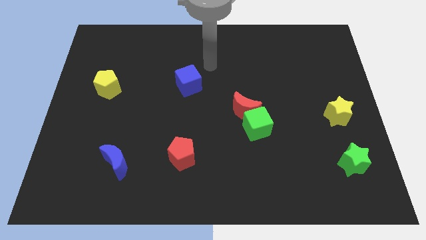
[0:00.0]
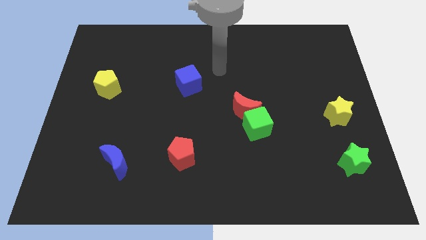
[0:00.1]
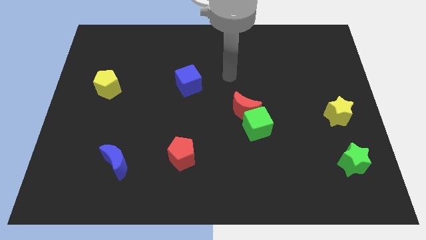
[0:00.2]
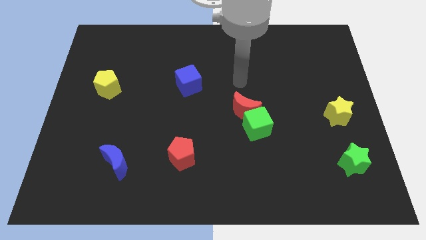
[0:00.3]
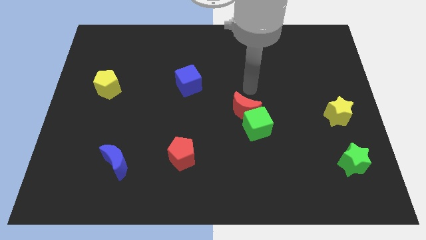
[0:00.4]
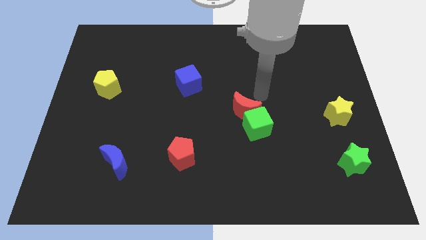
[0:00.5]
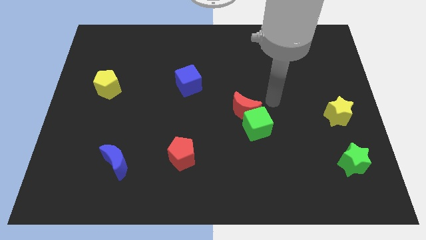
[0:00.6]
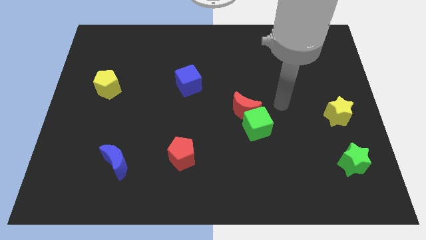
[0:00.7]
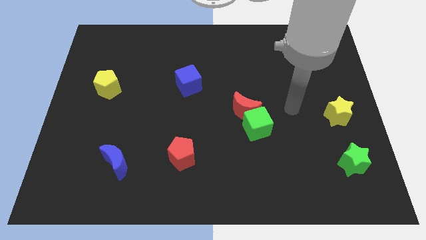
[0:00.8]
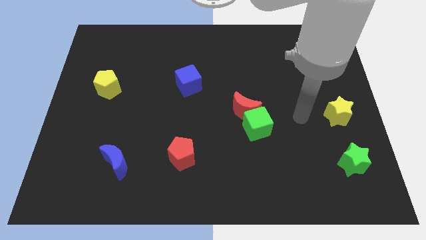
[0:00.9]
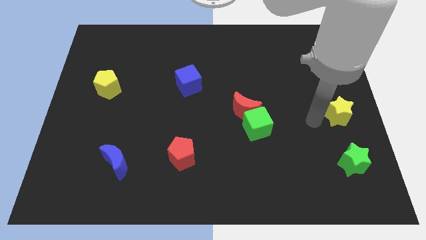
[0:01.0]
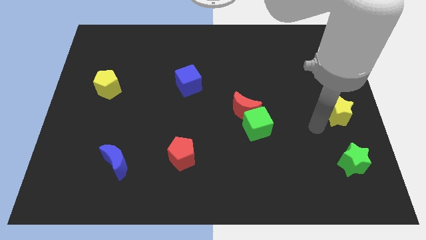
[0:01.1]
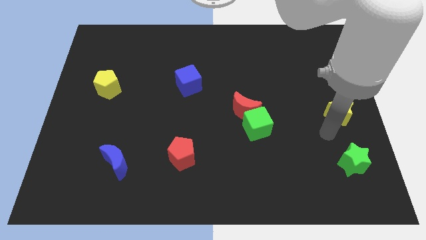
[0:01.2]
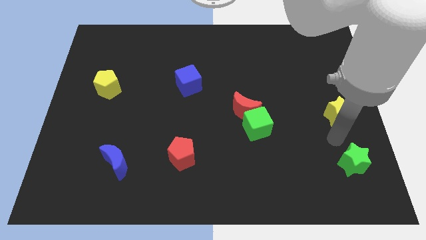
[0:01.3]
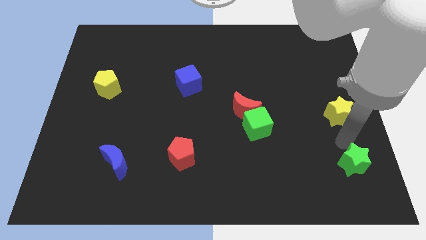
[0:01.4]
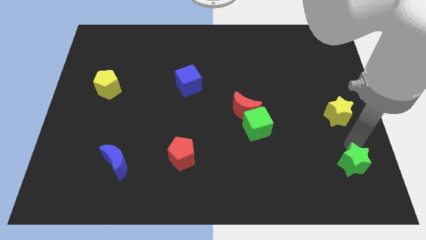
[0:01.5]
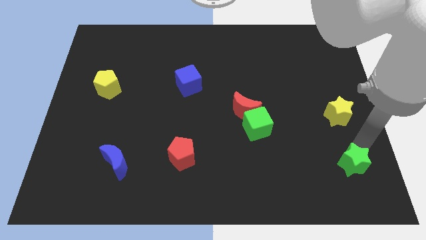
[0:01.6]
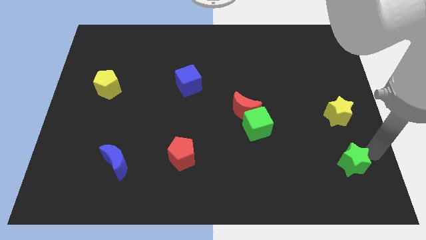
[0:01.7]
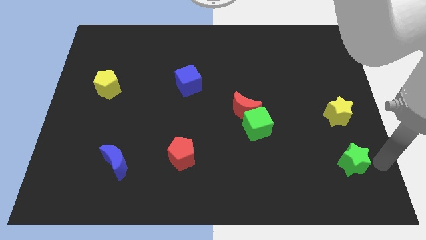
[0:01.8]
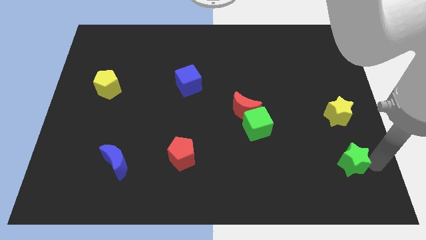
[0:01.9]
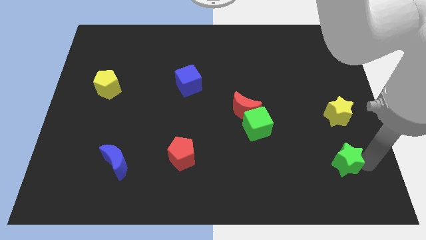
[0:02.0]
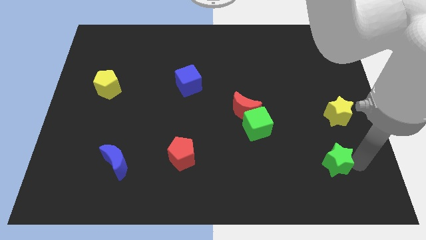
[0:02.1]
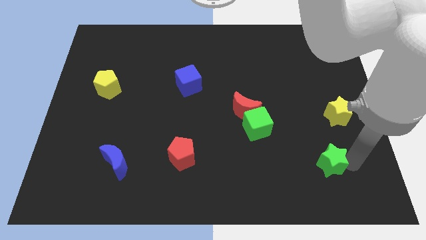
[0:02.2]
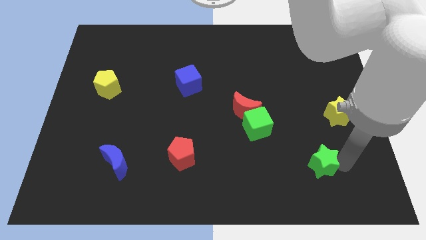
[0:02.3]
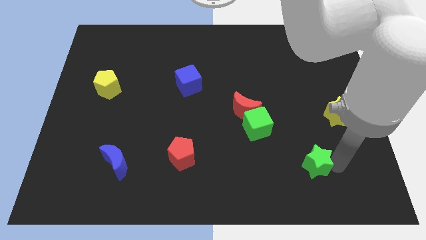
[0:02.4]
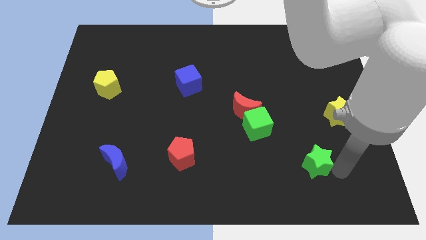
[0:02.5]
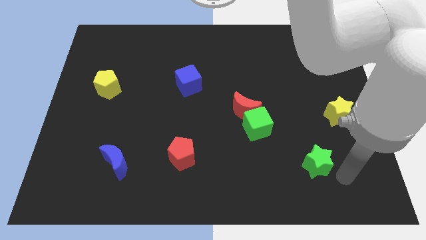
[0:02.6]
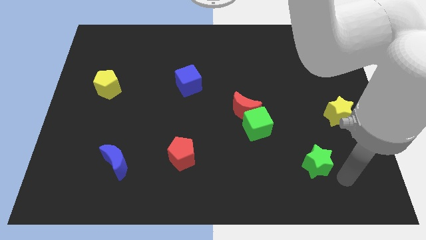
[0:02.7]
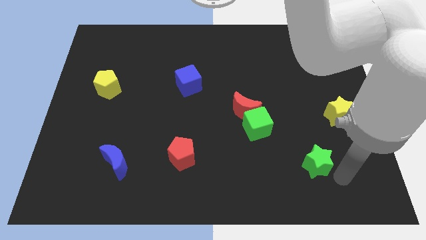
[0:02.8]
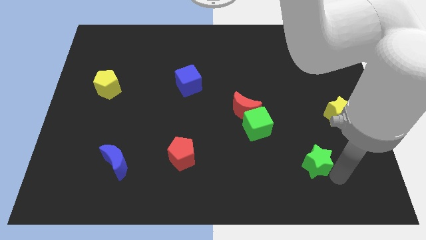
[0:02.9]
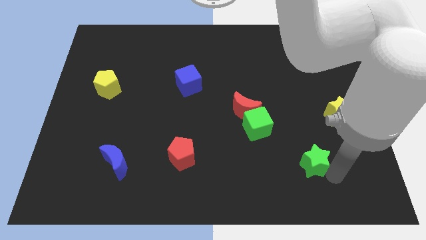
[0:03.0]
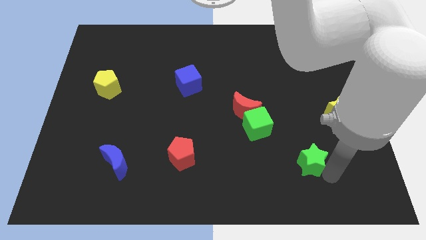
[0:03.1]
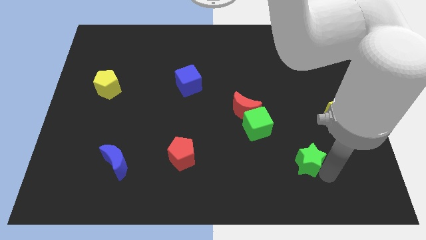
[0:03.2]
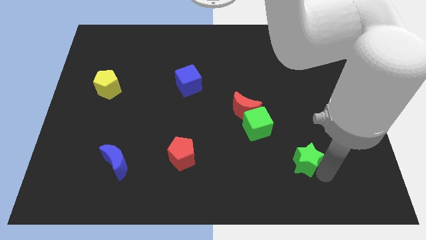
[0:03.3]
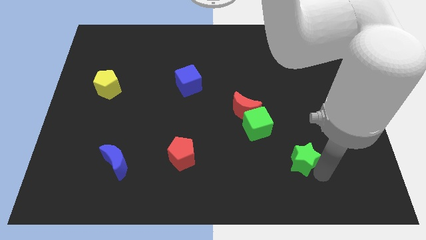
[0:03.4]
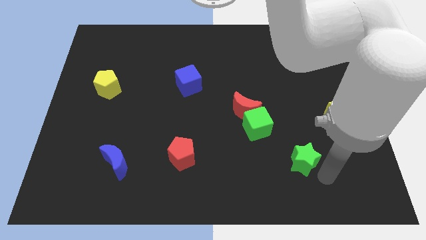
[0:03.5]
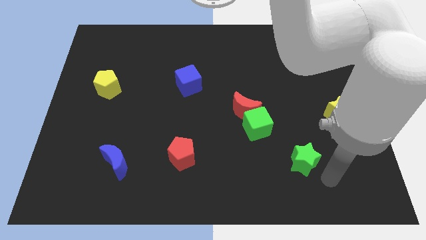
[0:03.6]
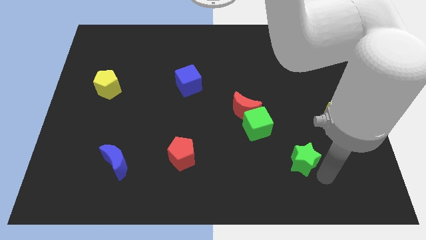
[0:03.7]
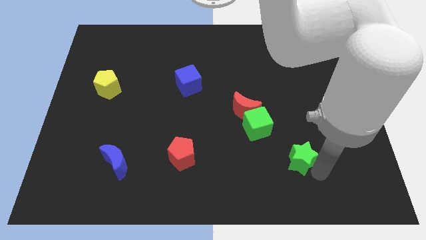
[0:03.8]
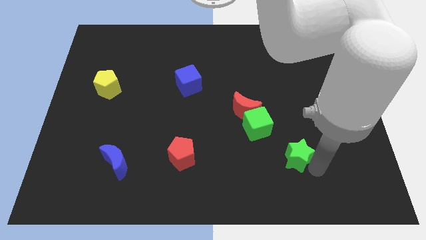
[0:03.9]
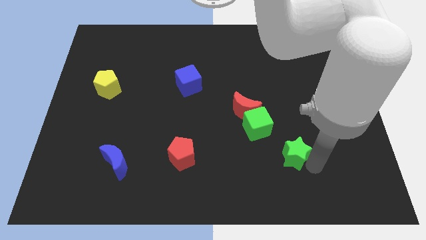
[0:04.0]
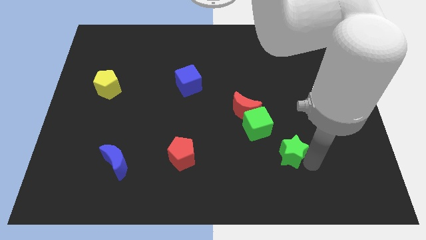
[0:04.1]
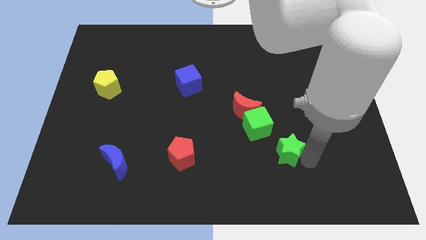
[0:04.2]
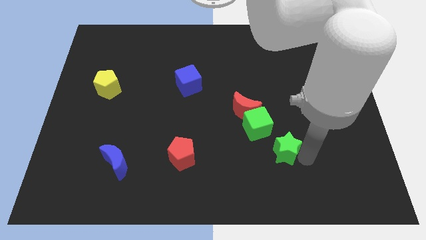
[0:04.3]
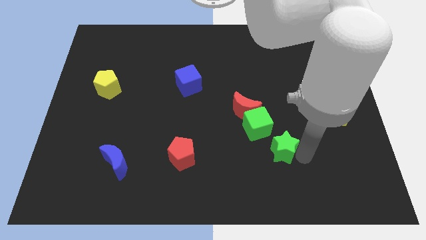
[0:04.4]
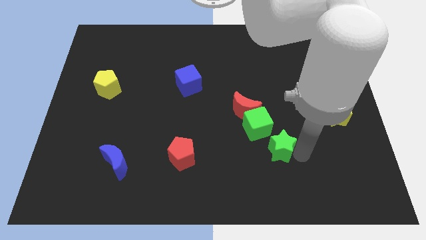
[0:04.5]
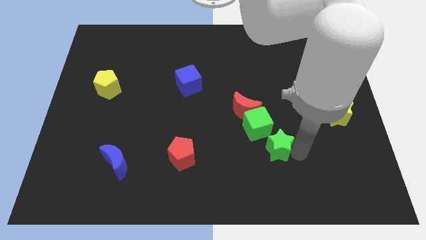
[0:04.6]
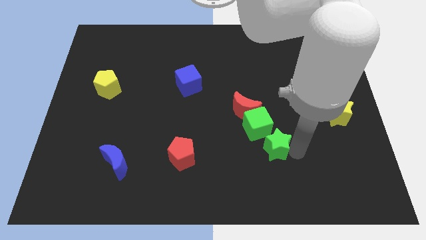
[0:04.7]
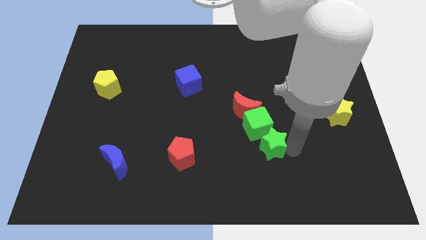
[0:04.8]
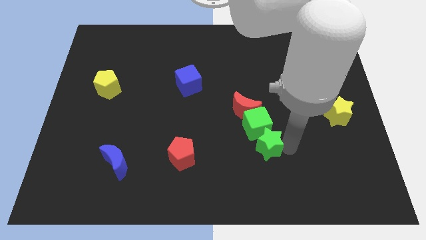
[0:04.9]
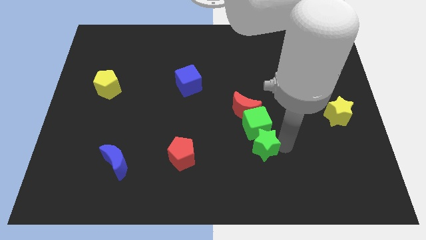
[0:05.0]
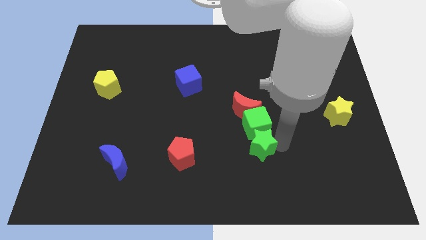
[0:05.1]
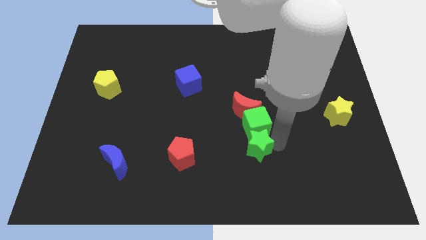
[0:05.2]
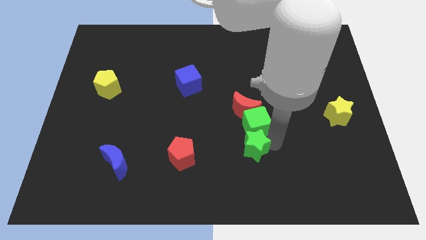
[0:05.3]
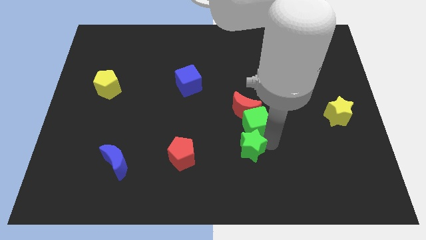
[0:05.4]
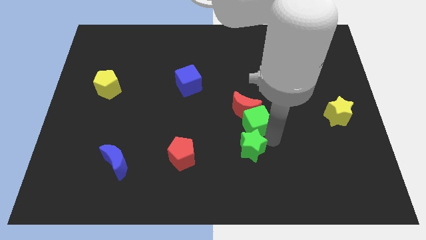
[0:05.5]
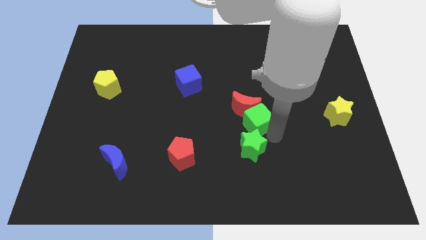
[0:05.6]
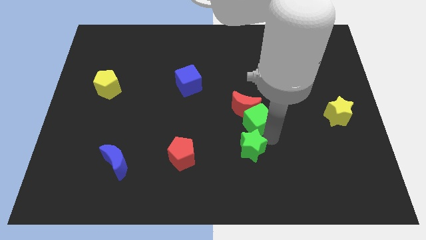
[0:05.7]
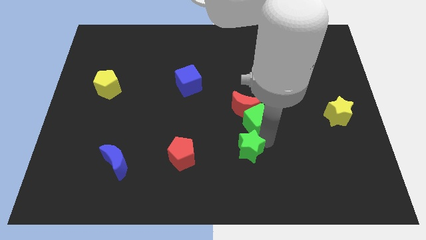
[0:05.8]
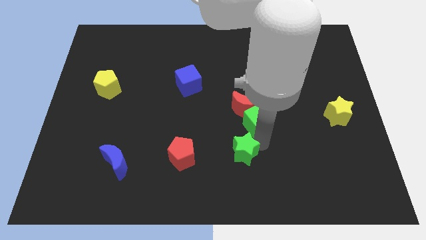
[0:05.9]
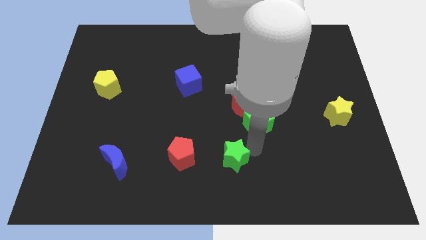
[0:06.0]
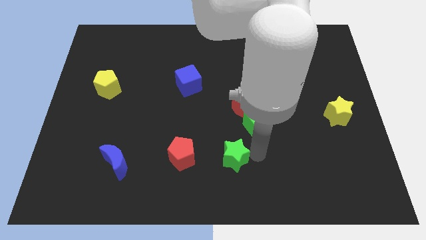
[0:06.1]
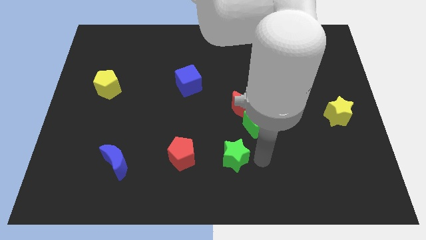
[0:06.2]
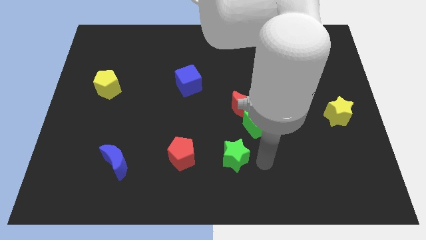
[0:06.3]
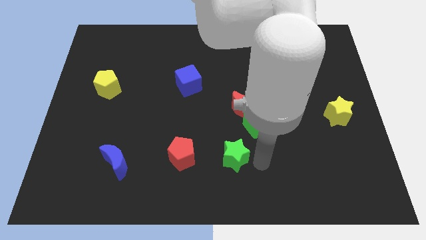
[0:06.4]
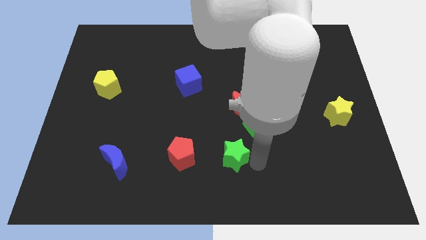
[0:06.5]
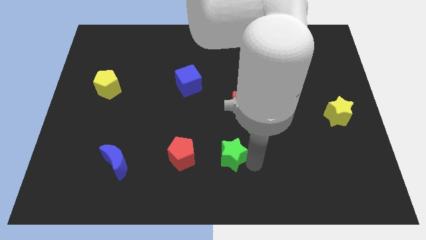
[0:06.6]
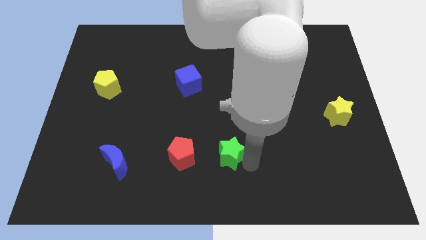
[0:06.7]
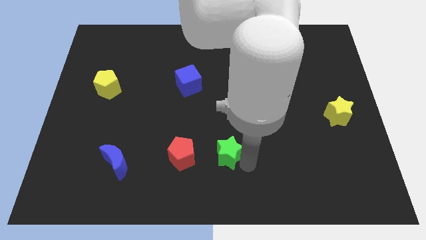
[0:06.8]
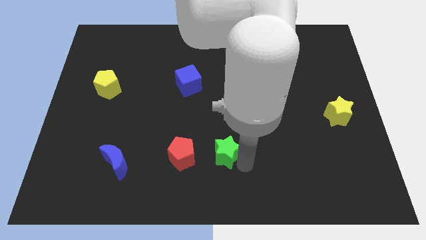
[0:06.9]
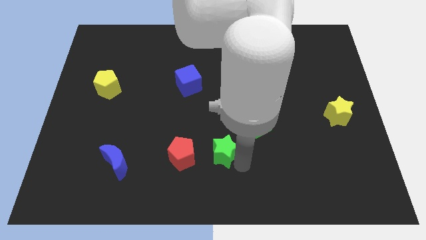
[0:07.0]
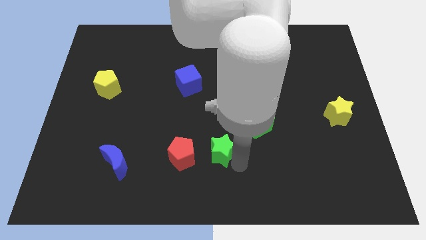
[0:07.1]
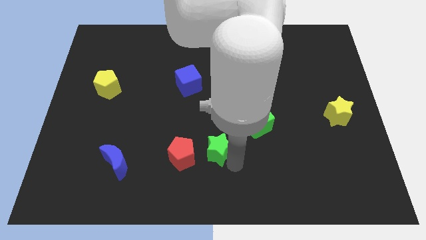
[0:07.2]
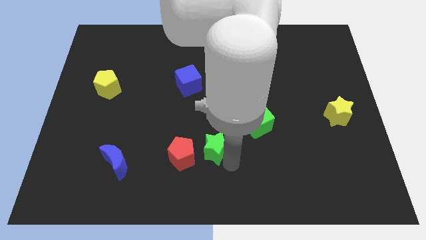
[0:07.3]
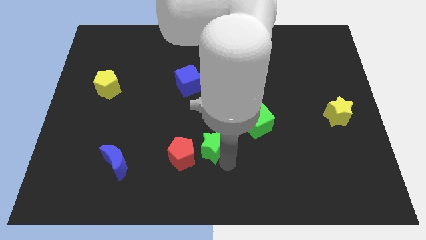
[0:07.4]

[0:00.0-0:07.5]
move the green star towards the red pentagon
